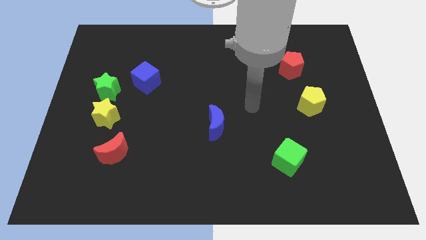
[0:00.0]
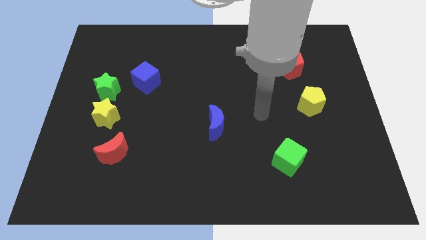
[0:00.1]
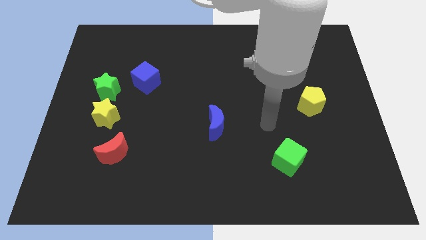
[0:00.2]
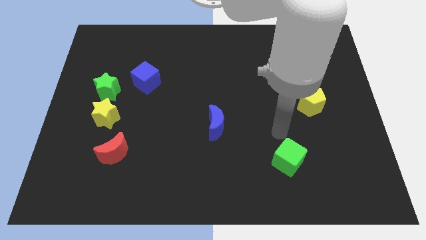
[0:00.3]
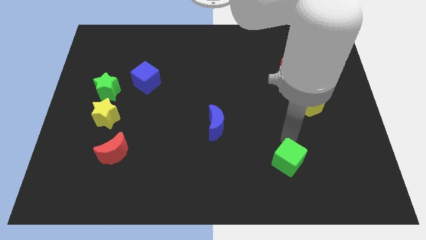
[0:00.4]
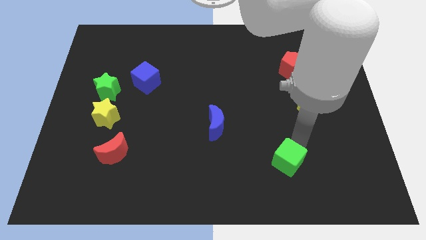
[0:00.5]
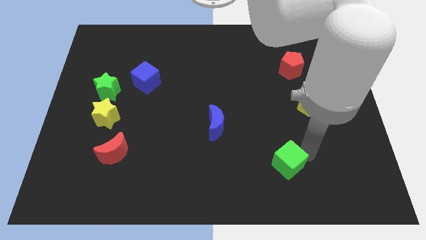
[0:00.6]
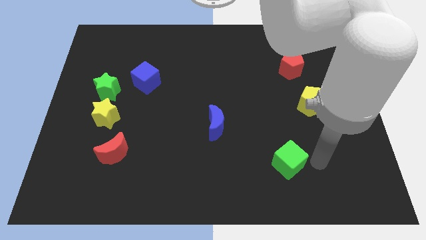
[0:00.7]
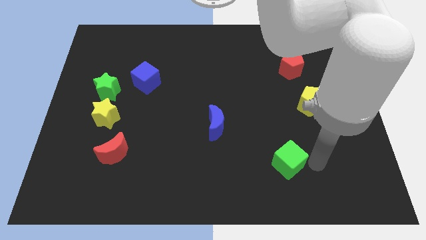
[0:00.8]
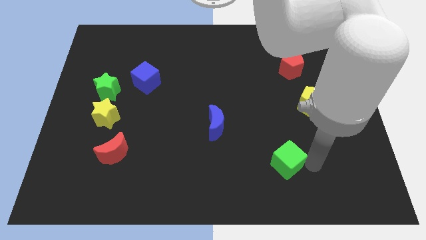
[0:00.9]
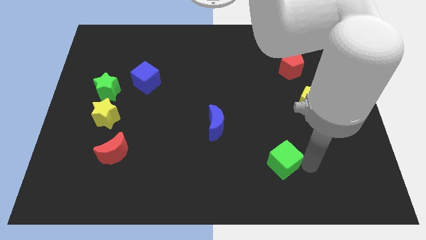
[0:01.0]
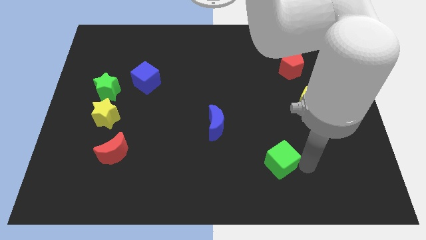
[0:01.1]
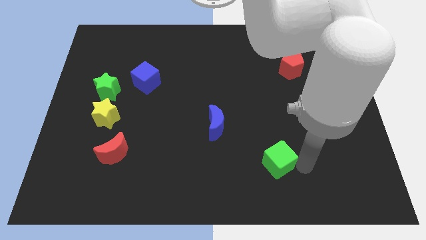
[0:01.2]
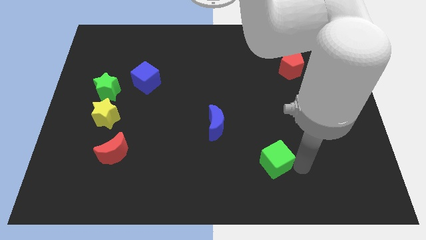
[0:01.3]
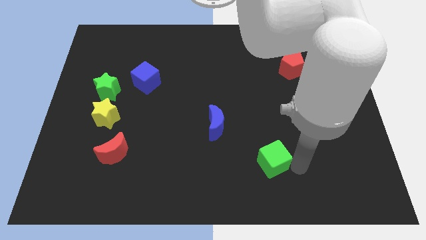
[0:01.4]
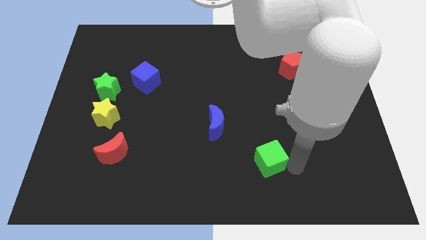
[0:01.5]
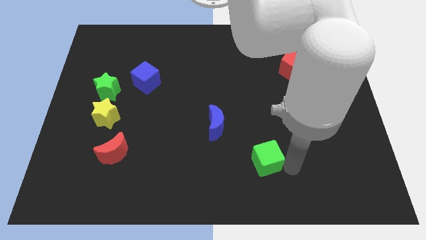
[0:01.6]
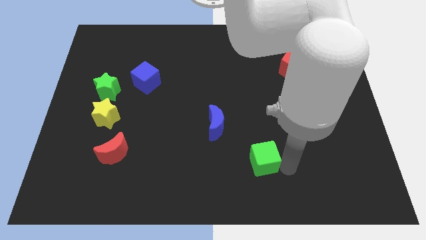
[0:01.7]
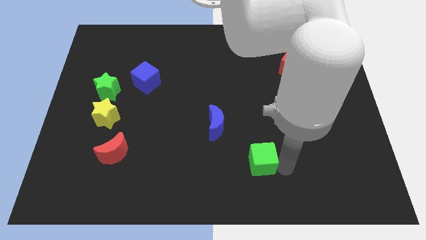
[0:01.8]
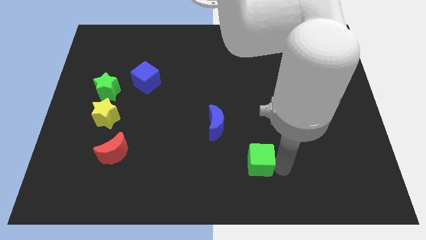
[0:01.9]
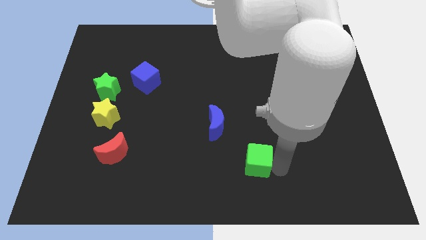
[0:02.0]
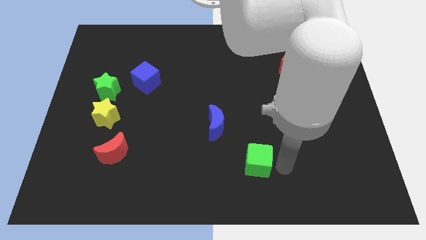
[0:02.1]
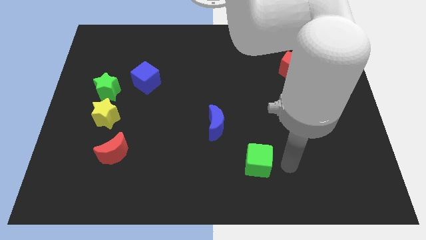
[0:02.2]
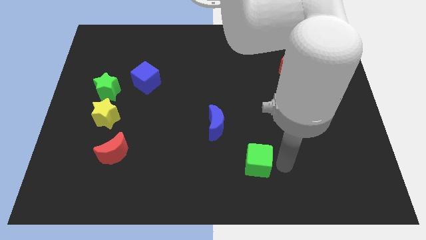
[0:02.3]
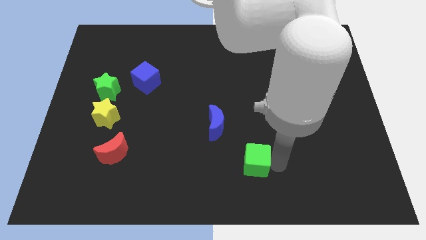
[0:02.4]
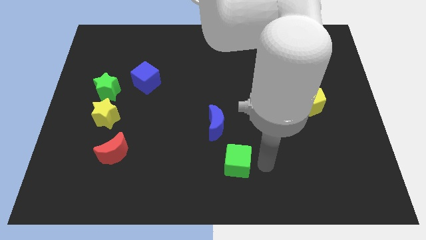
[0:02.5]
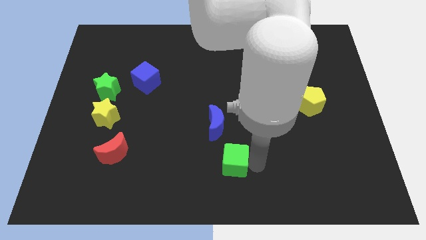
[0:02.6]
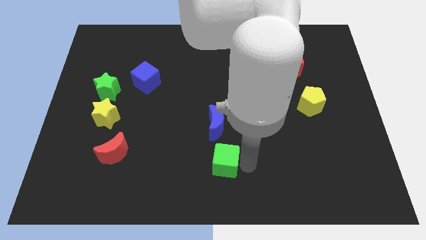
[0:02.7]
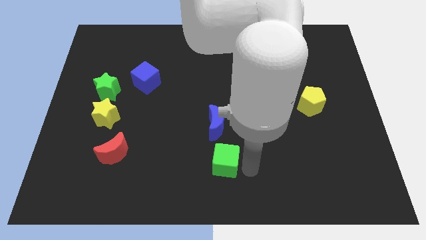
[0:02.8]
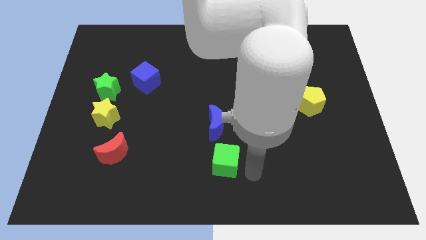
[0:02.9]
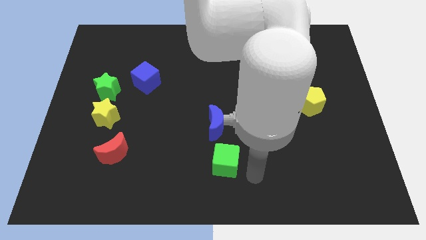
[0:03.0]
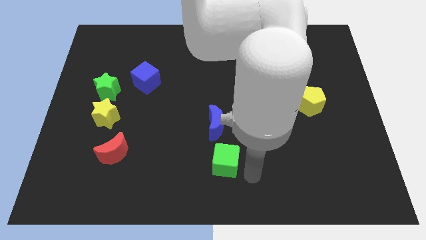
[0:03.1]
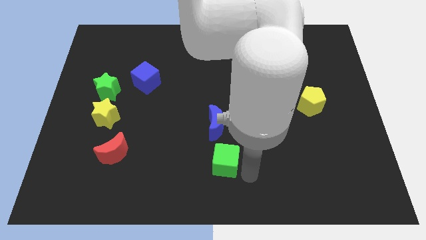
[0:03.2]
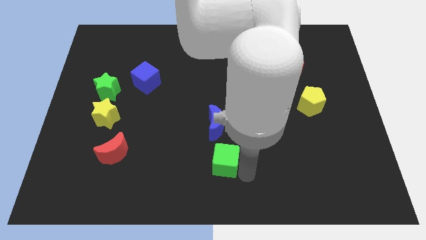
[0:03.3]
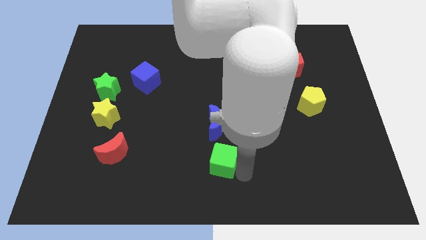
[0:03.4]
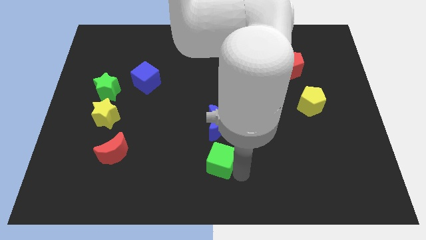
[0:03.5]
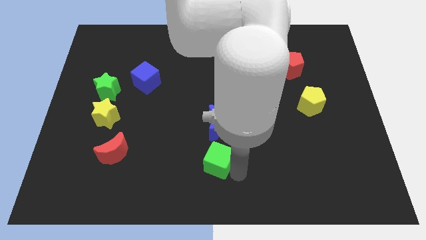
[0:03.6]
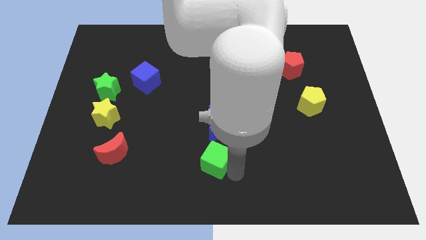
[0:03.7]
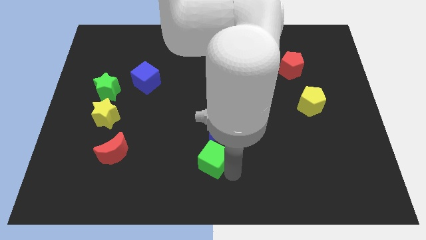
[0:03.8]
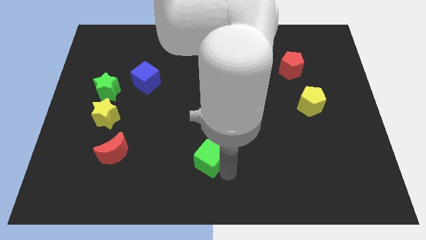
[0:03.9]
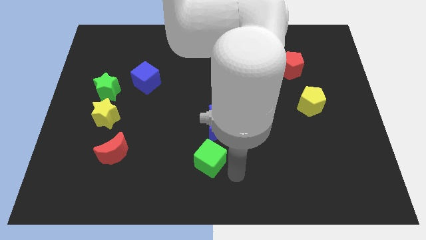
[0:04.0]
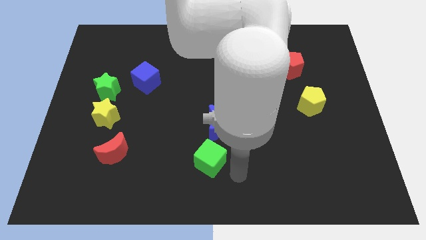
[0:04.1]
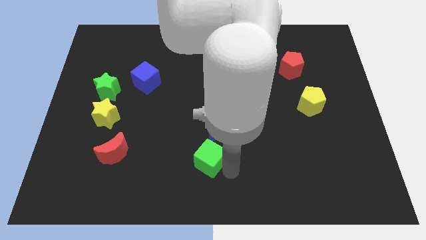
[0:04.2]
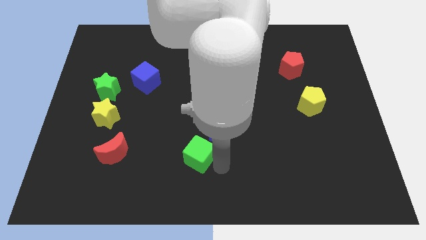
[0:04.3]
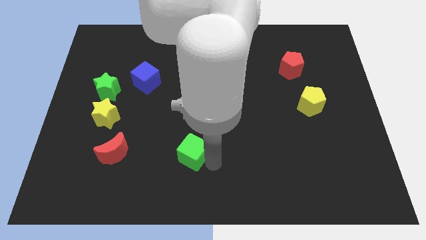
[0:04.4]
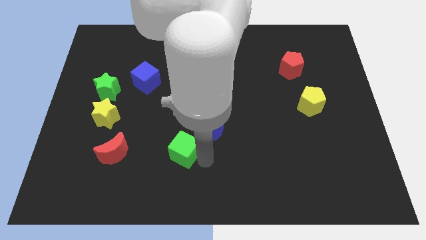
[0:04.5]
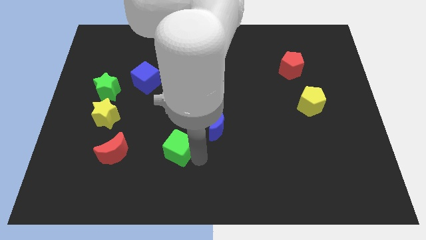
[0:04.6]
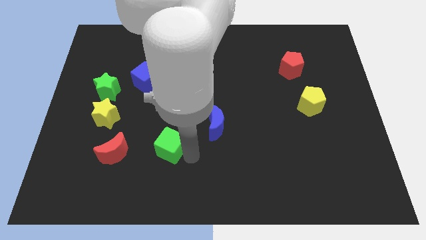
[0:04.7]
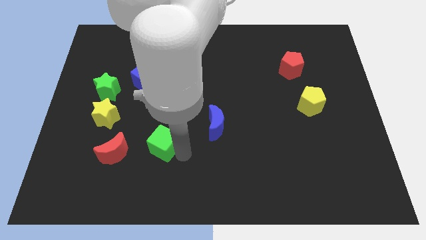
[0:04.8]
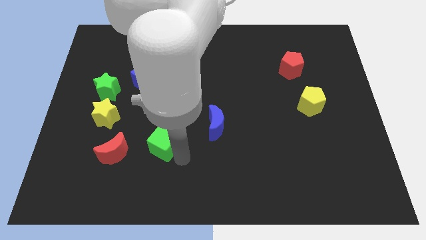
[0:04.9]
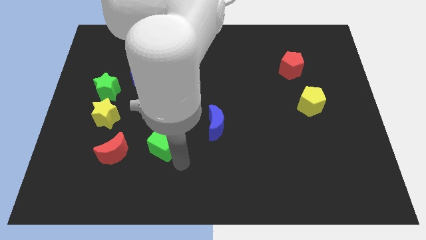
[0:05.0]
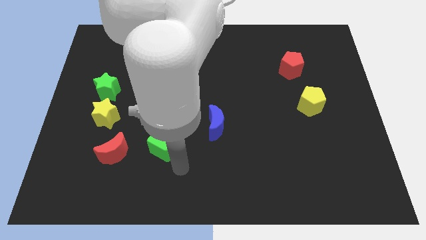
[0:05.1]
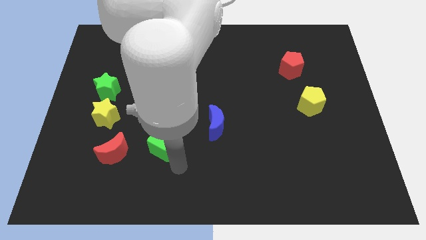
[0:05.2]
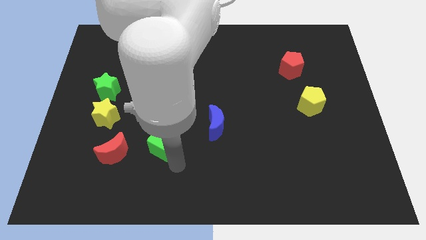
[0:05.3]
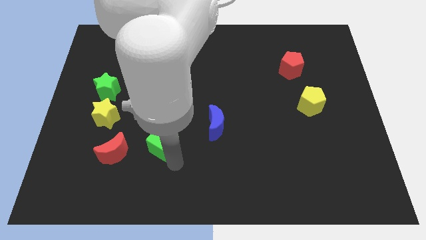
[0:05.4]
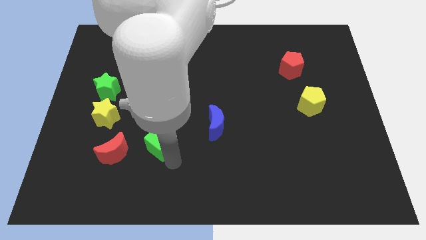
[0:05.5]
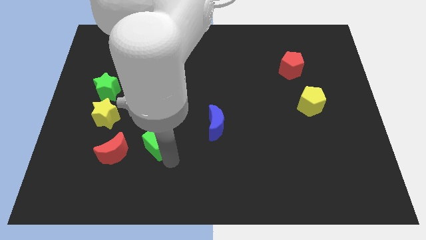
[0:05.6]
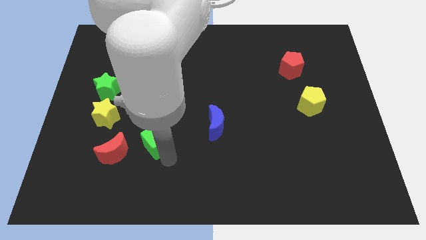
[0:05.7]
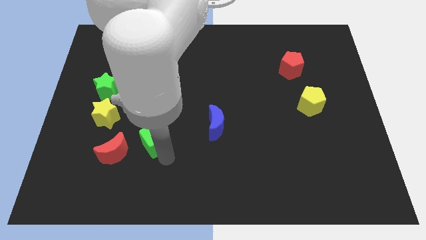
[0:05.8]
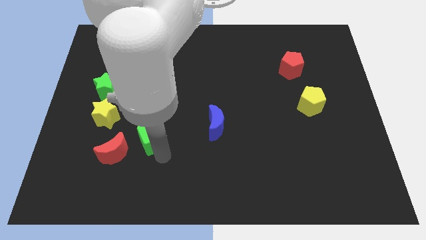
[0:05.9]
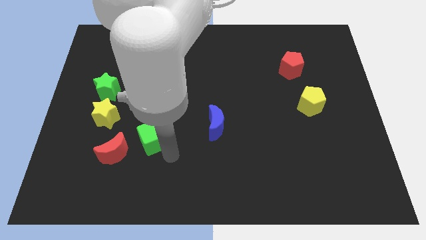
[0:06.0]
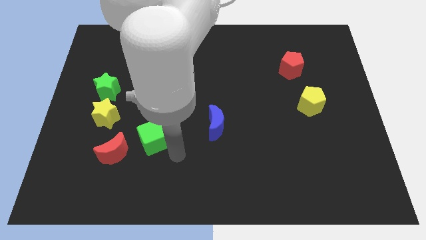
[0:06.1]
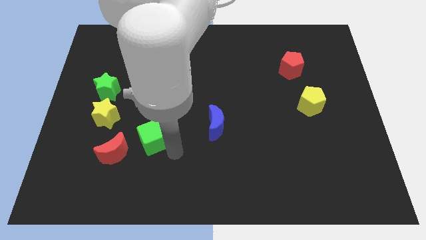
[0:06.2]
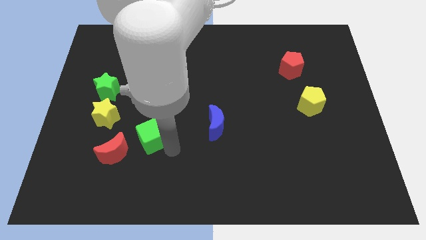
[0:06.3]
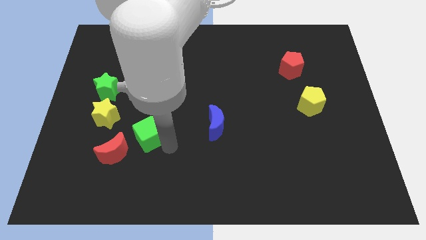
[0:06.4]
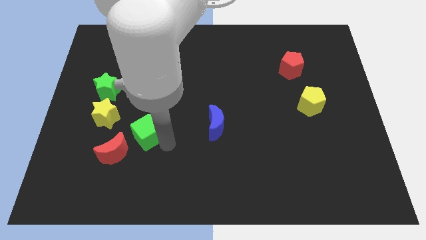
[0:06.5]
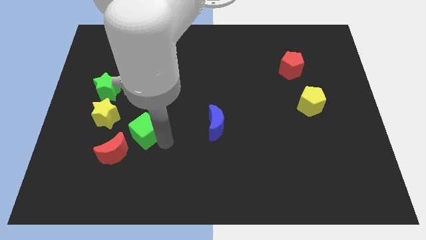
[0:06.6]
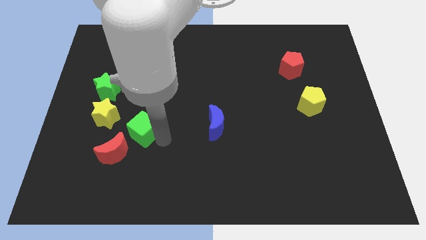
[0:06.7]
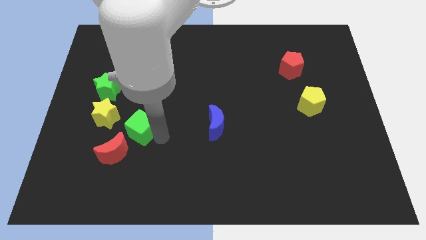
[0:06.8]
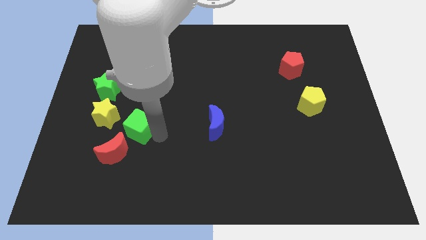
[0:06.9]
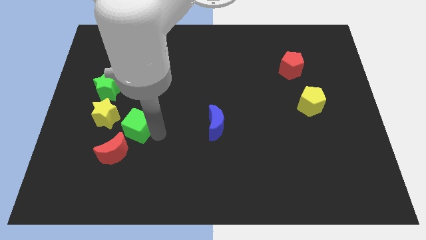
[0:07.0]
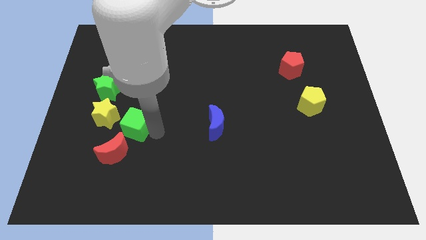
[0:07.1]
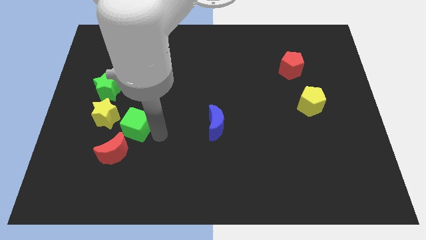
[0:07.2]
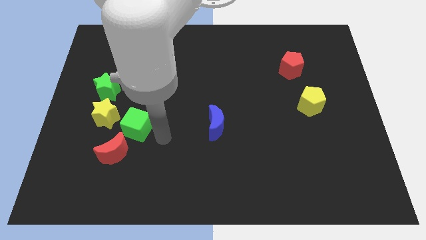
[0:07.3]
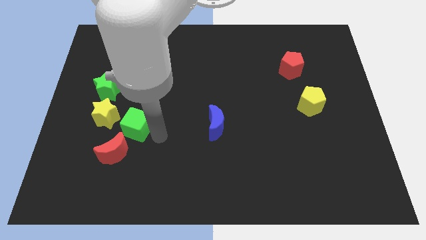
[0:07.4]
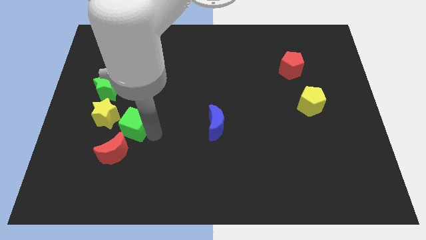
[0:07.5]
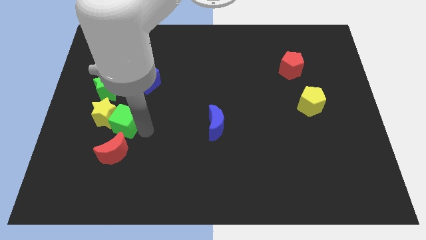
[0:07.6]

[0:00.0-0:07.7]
put the green cube next to the yellow star
